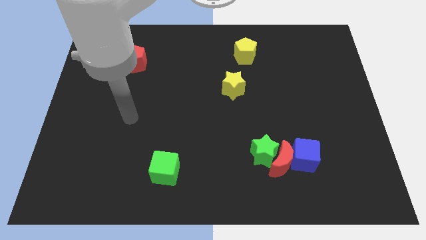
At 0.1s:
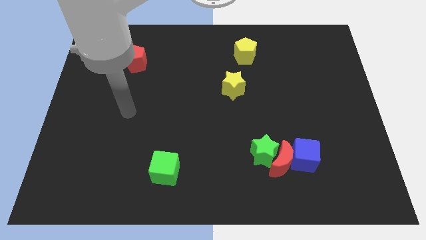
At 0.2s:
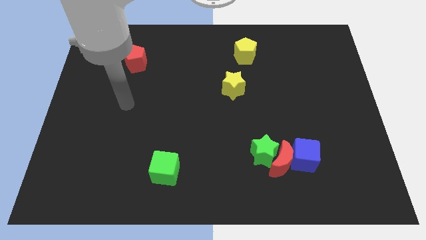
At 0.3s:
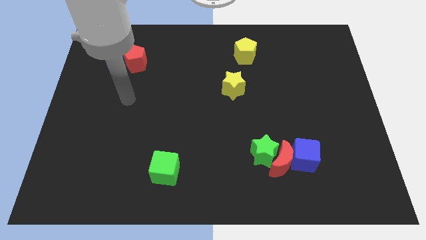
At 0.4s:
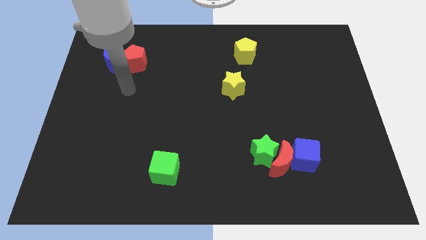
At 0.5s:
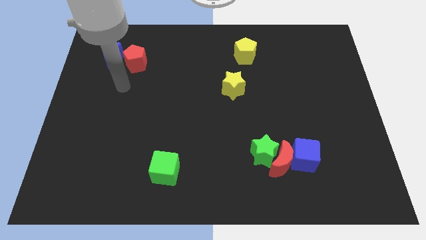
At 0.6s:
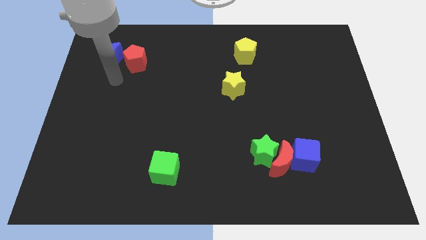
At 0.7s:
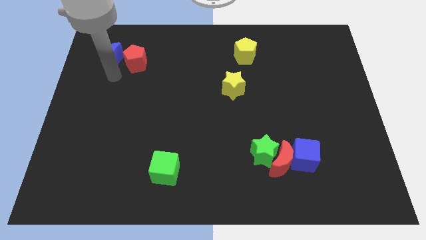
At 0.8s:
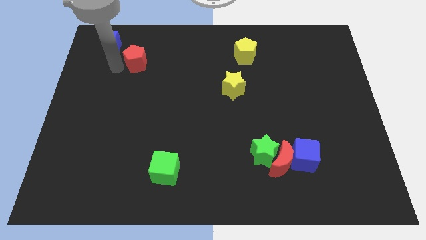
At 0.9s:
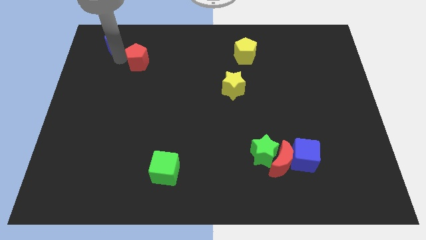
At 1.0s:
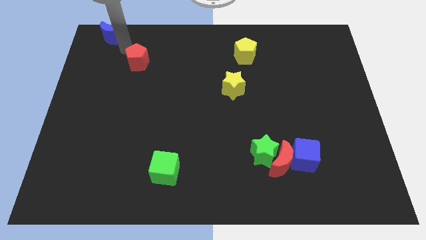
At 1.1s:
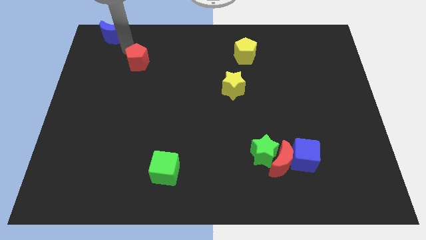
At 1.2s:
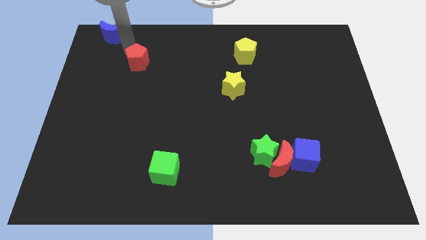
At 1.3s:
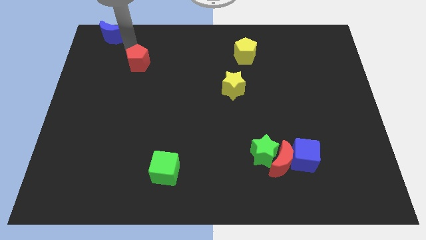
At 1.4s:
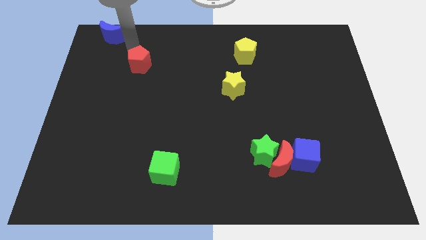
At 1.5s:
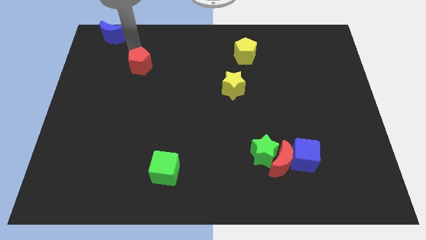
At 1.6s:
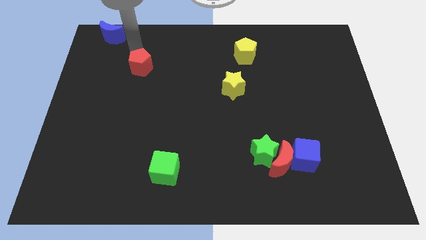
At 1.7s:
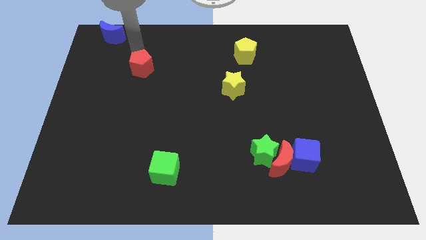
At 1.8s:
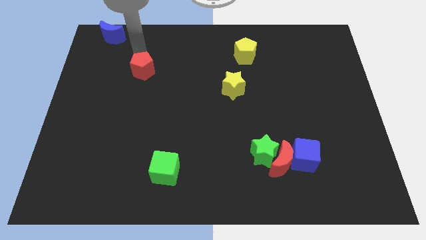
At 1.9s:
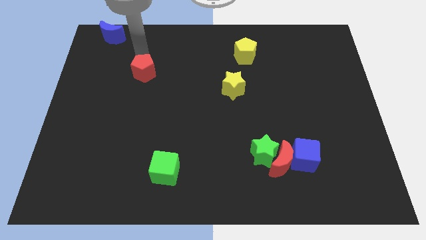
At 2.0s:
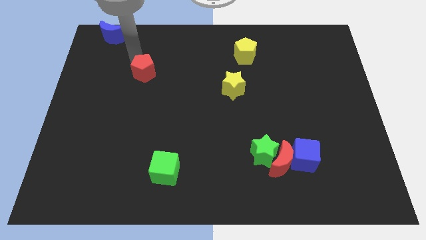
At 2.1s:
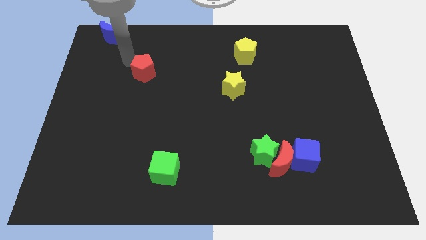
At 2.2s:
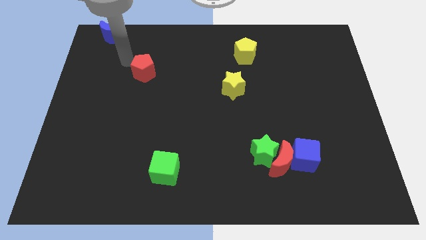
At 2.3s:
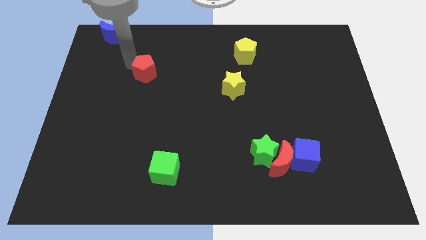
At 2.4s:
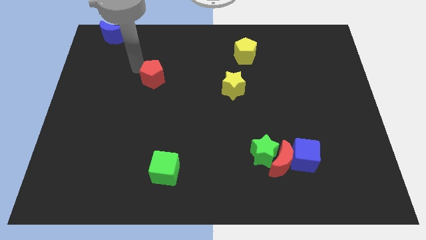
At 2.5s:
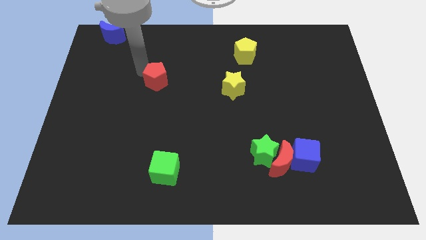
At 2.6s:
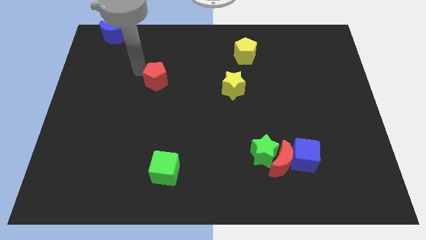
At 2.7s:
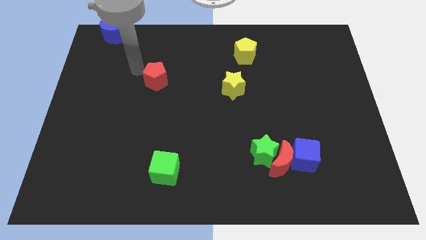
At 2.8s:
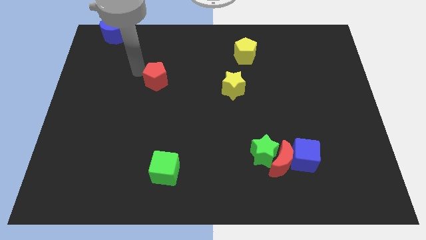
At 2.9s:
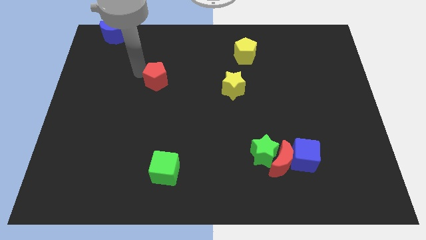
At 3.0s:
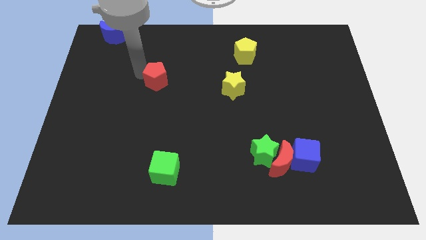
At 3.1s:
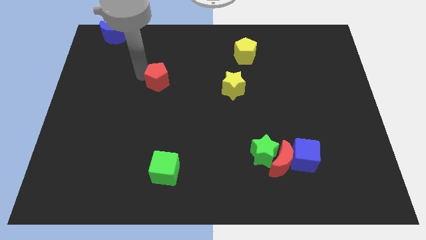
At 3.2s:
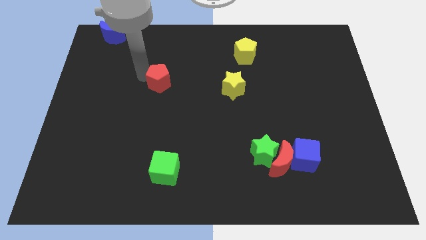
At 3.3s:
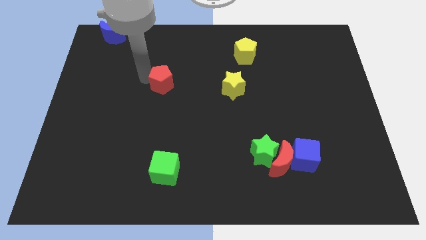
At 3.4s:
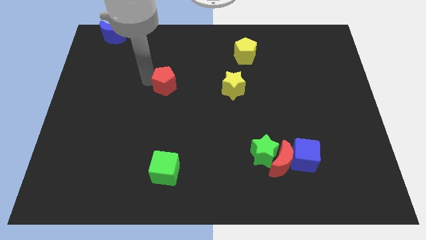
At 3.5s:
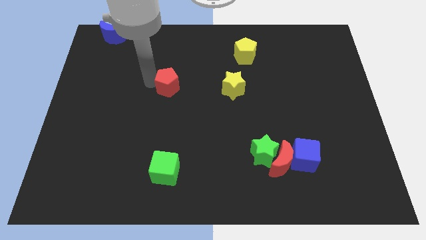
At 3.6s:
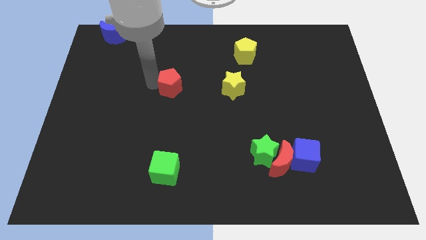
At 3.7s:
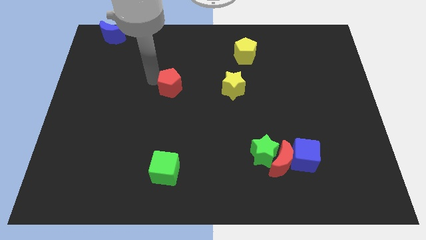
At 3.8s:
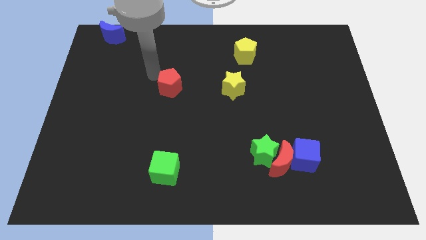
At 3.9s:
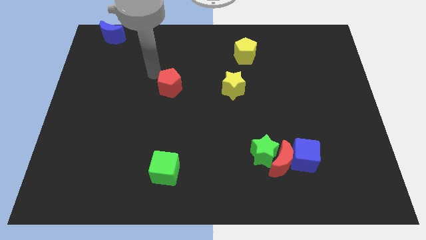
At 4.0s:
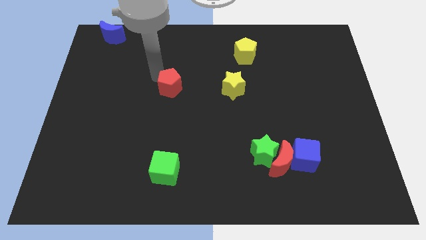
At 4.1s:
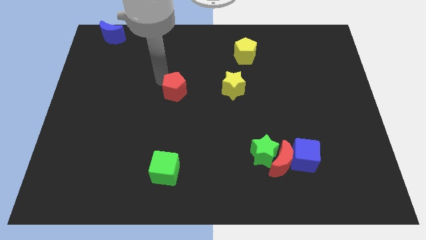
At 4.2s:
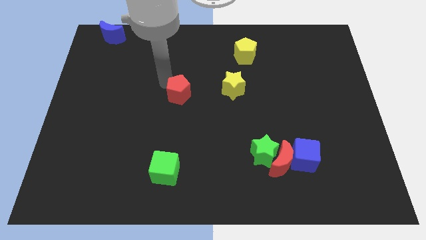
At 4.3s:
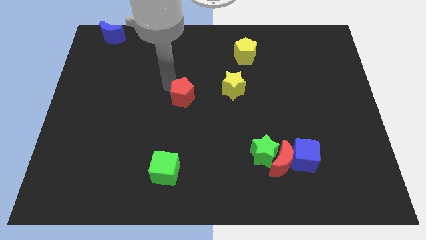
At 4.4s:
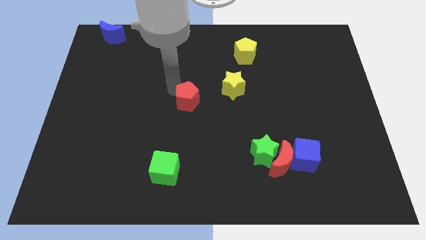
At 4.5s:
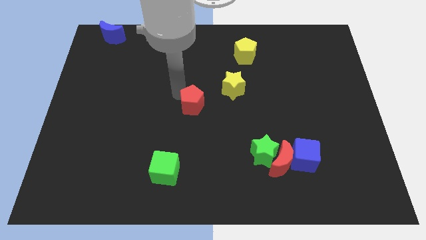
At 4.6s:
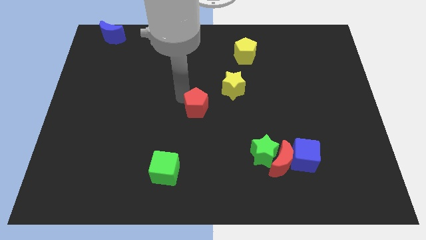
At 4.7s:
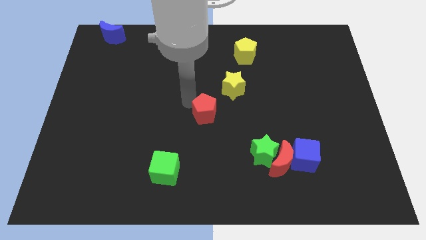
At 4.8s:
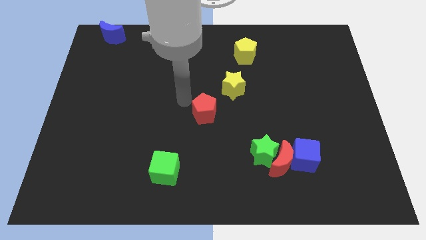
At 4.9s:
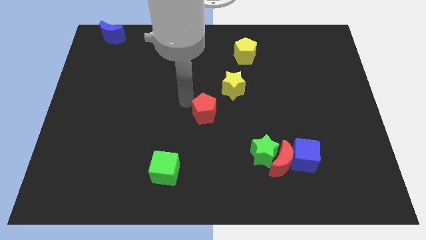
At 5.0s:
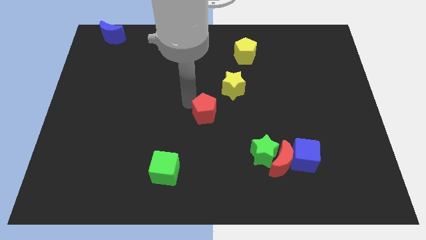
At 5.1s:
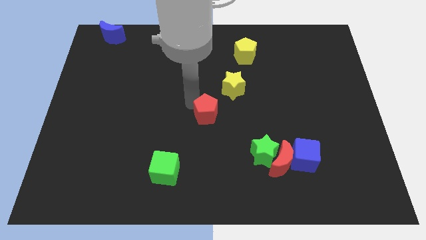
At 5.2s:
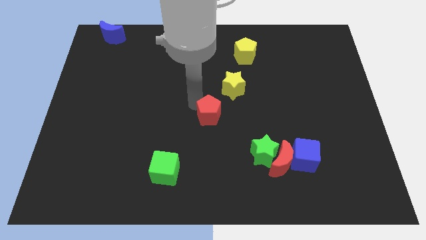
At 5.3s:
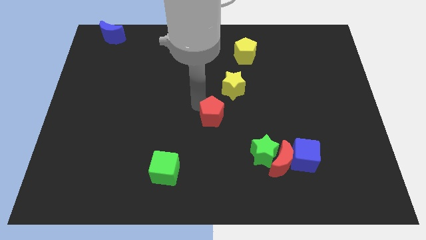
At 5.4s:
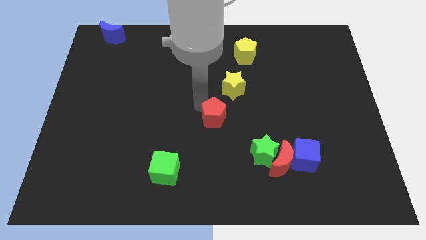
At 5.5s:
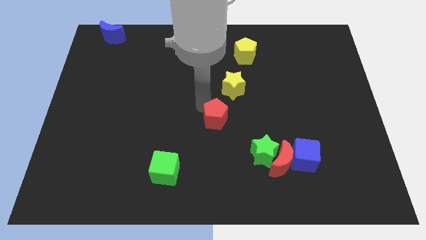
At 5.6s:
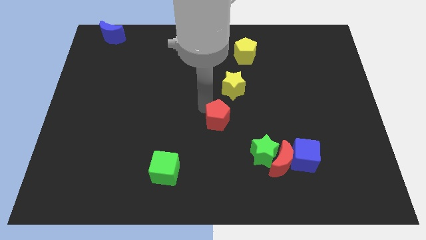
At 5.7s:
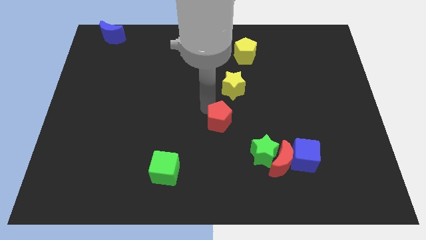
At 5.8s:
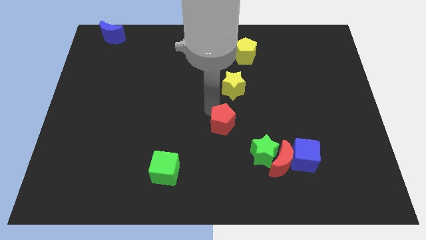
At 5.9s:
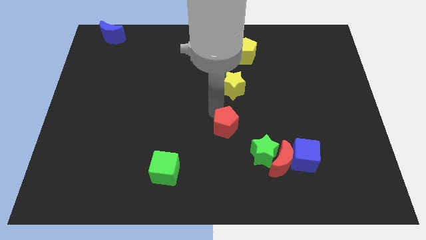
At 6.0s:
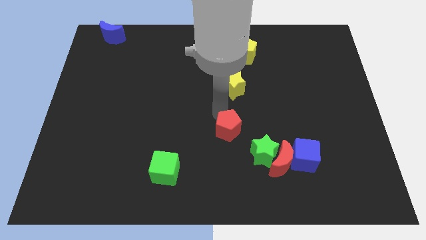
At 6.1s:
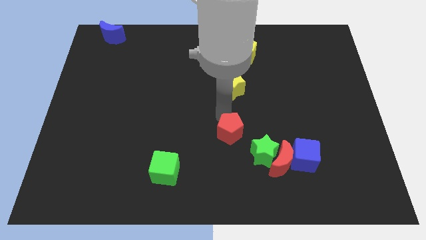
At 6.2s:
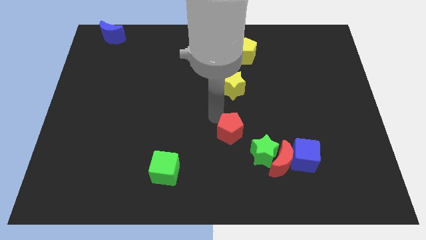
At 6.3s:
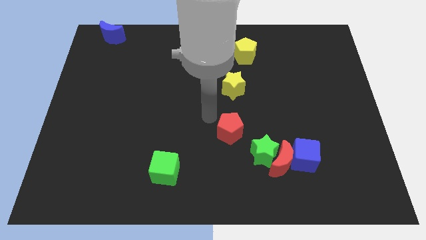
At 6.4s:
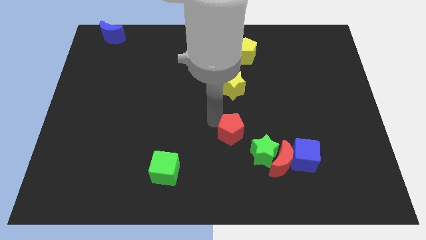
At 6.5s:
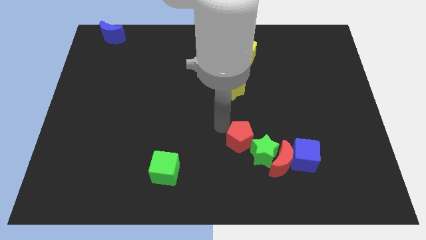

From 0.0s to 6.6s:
move the red pentagon towards the green star
